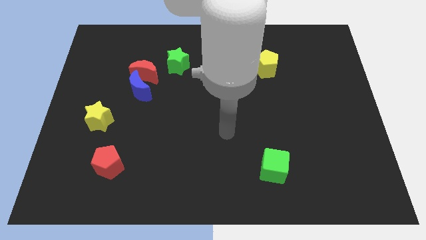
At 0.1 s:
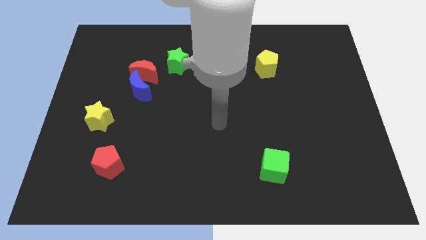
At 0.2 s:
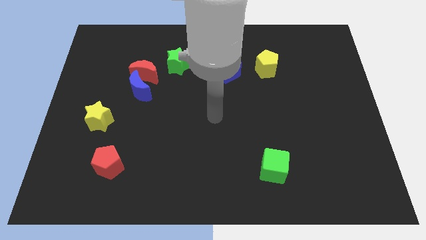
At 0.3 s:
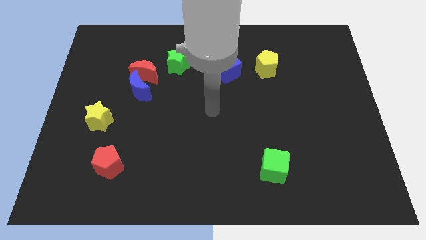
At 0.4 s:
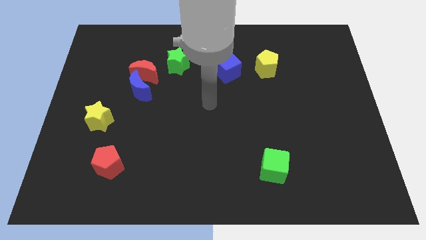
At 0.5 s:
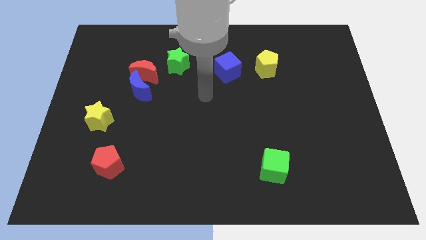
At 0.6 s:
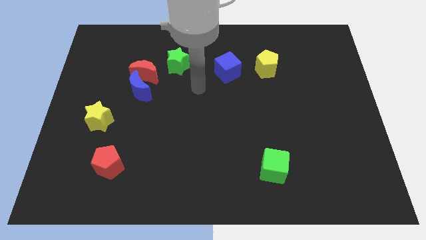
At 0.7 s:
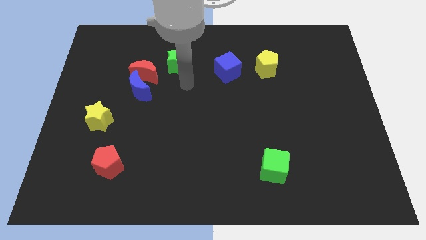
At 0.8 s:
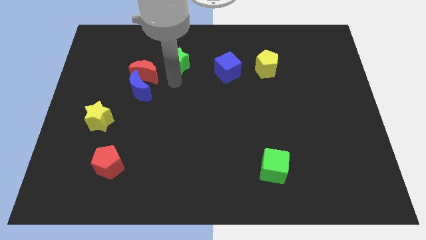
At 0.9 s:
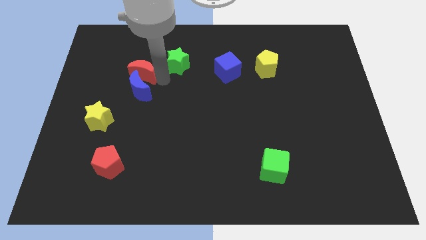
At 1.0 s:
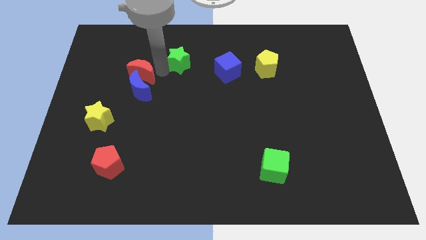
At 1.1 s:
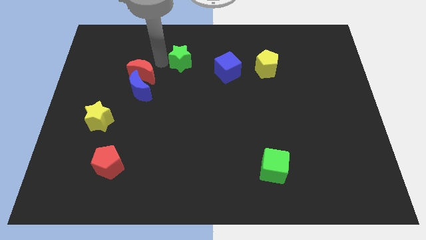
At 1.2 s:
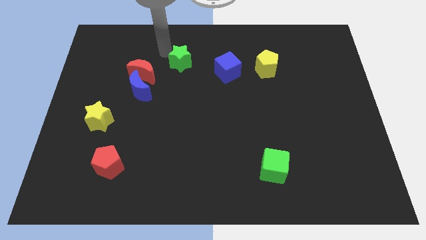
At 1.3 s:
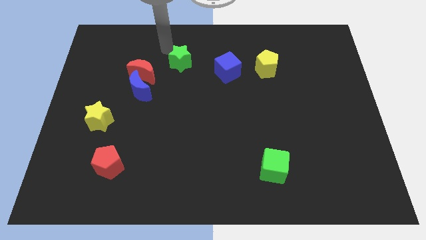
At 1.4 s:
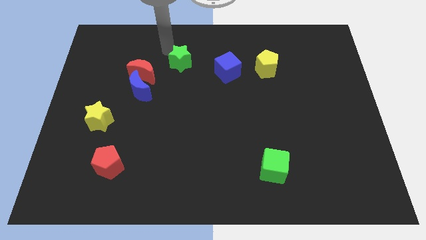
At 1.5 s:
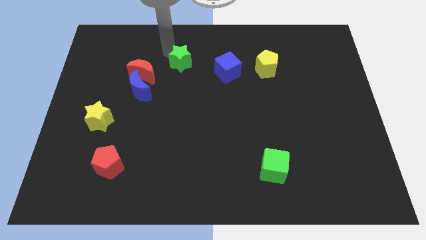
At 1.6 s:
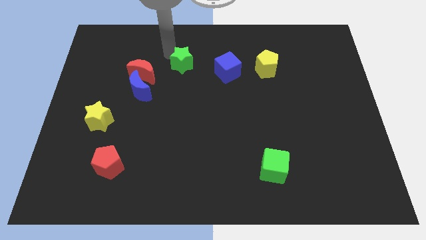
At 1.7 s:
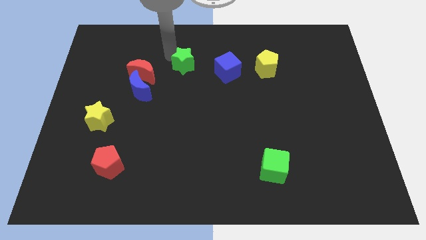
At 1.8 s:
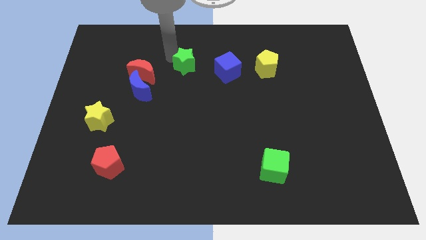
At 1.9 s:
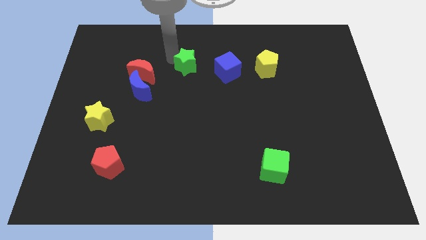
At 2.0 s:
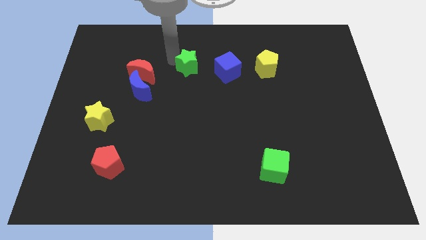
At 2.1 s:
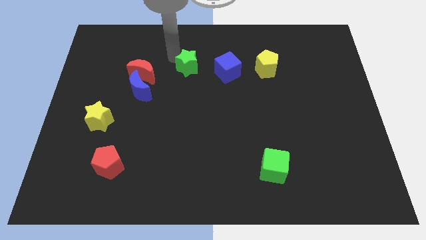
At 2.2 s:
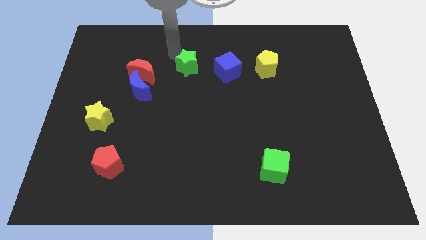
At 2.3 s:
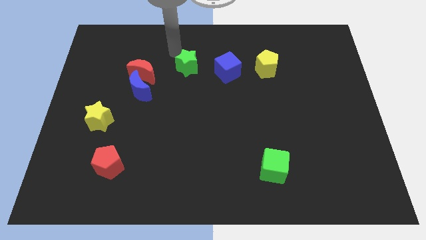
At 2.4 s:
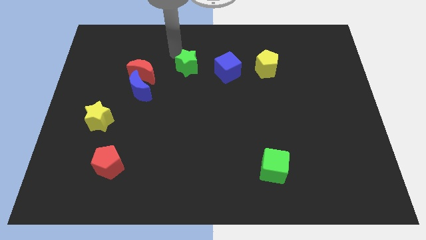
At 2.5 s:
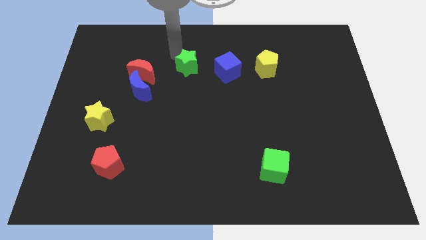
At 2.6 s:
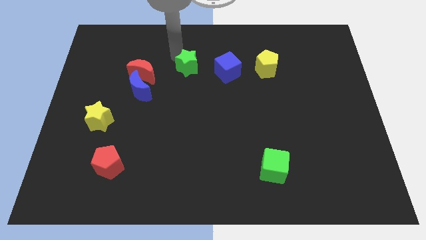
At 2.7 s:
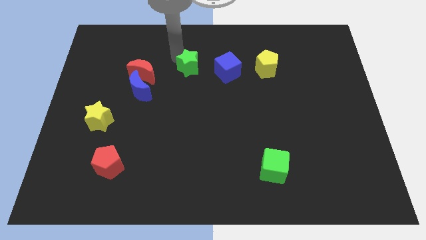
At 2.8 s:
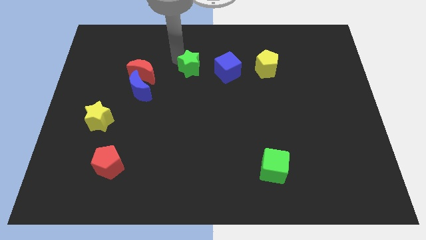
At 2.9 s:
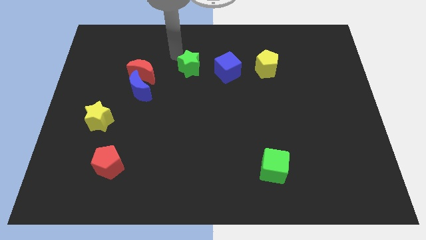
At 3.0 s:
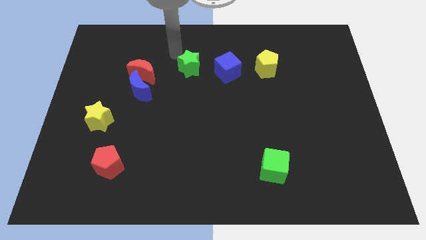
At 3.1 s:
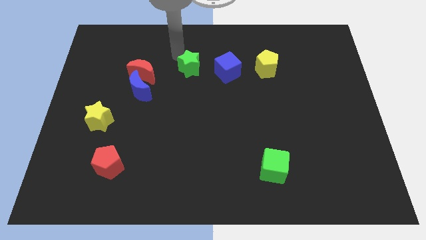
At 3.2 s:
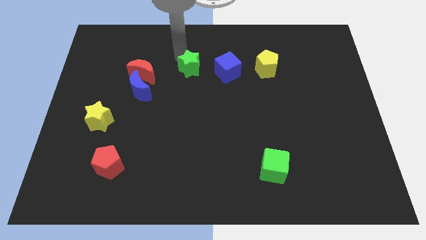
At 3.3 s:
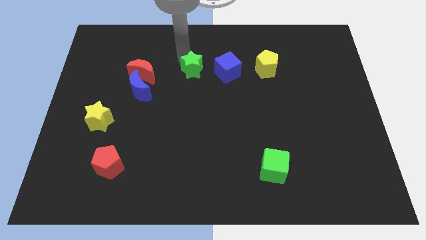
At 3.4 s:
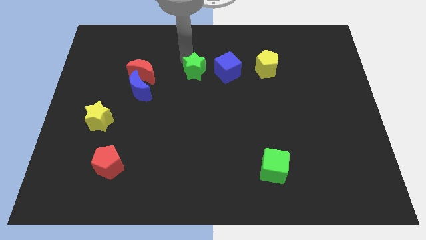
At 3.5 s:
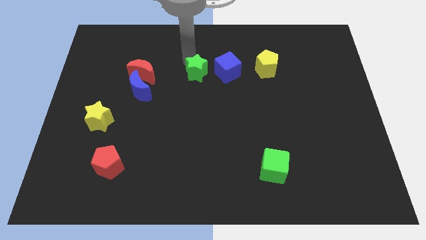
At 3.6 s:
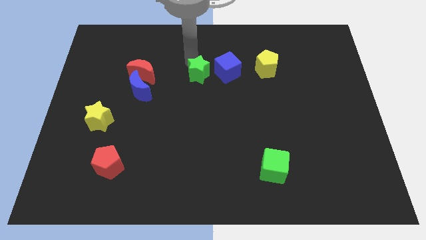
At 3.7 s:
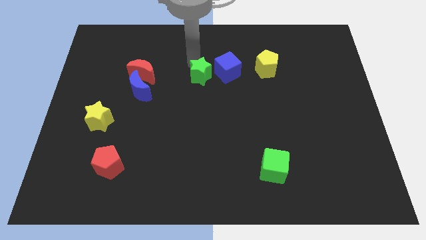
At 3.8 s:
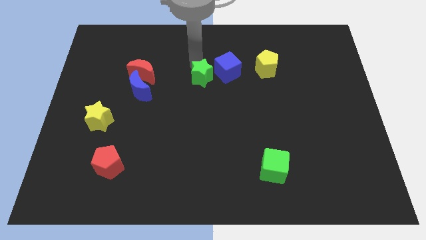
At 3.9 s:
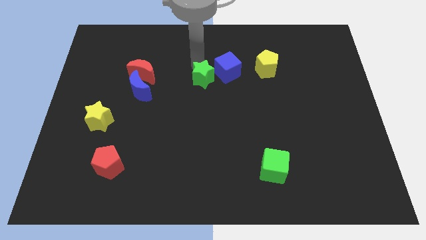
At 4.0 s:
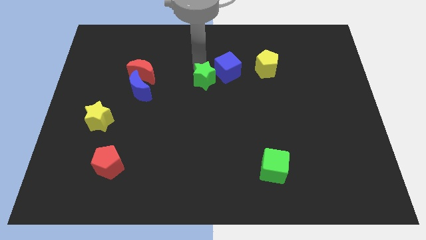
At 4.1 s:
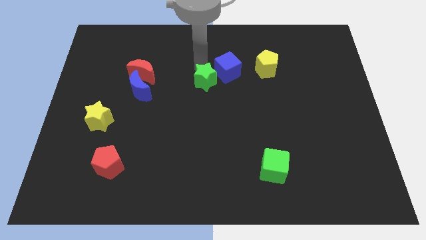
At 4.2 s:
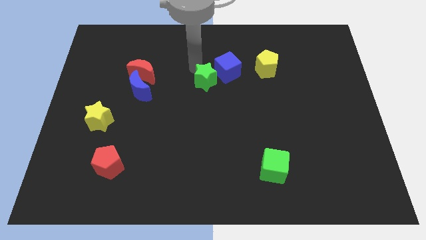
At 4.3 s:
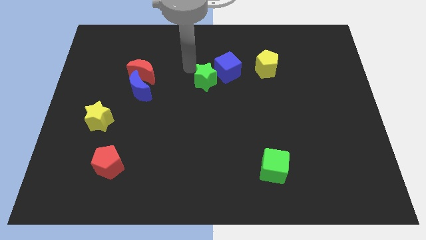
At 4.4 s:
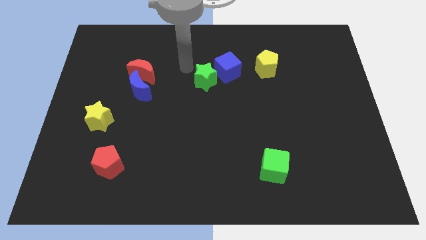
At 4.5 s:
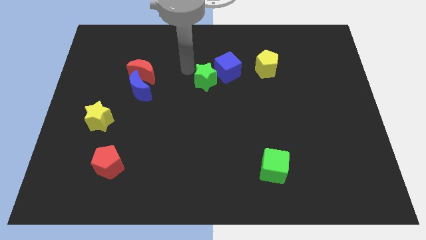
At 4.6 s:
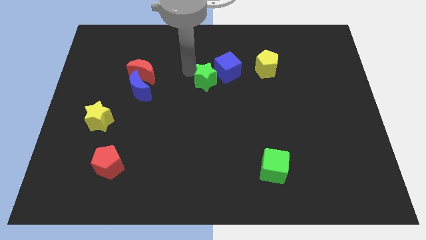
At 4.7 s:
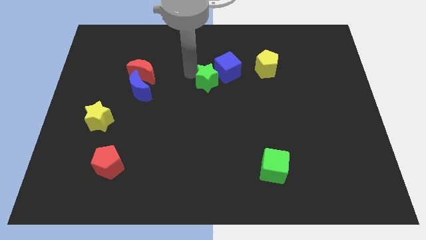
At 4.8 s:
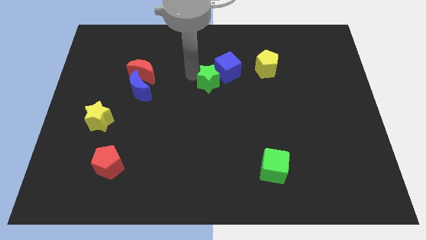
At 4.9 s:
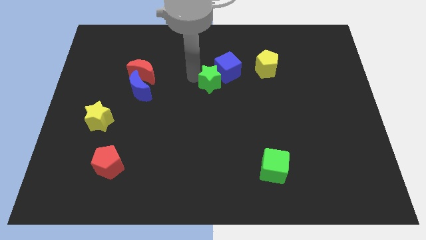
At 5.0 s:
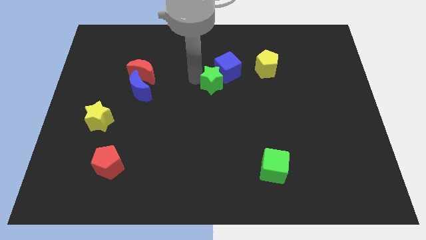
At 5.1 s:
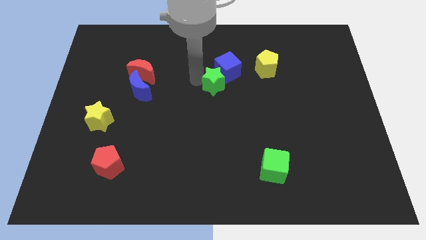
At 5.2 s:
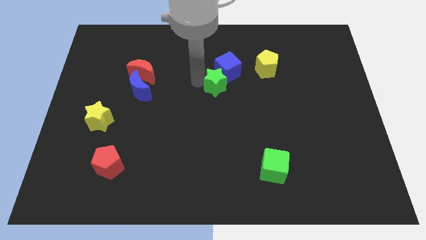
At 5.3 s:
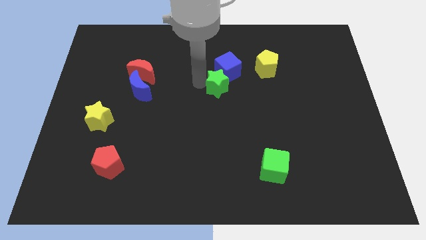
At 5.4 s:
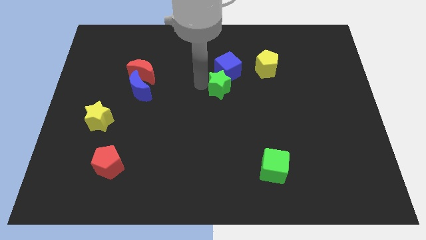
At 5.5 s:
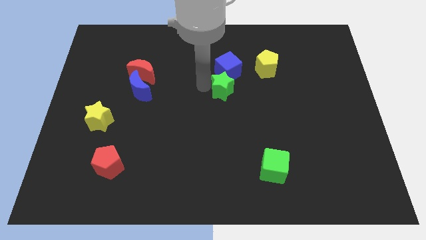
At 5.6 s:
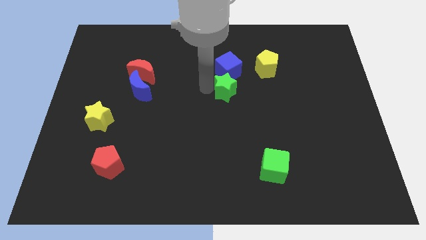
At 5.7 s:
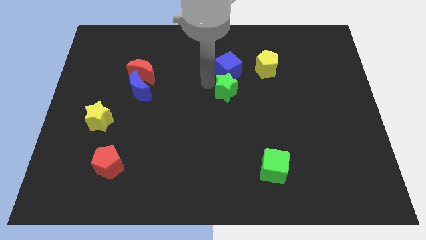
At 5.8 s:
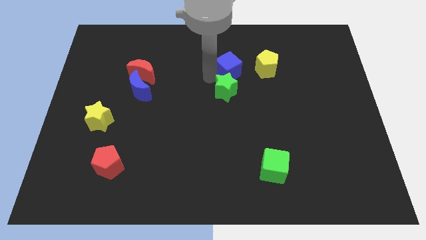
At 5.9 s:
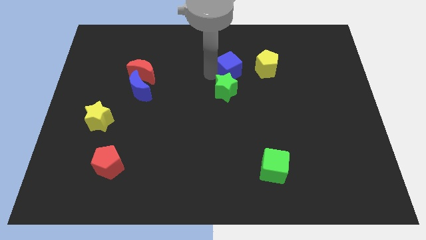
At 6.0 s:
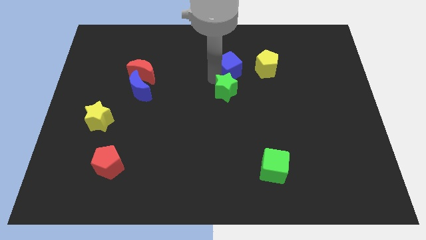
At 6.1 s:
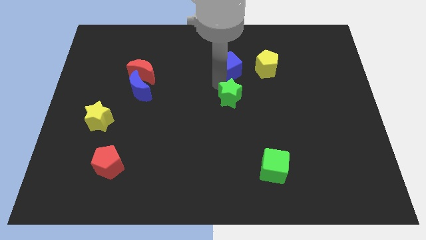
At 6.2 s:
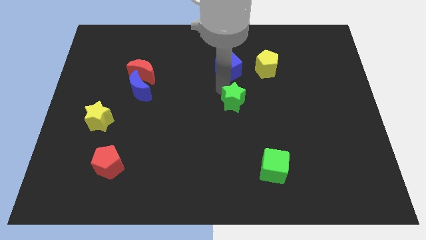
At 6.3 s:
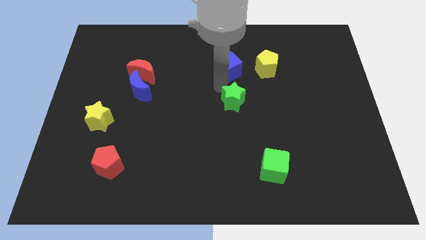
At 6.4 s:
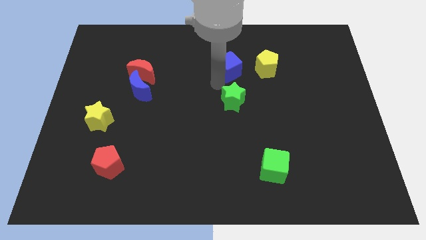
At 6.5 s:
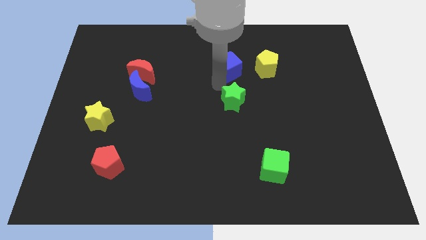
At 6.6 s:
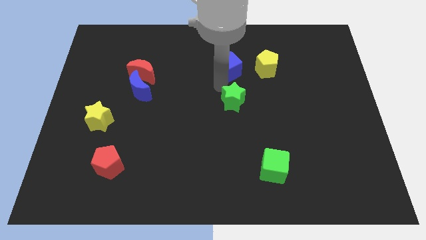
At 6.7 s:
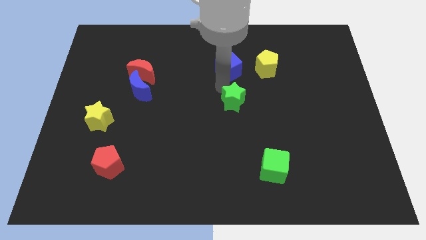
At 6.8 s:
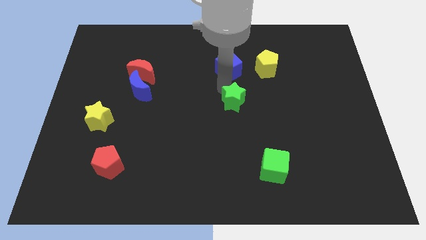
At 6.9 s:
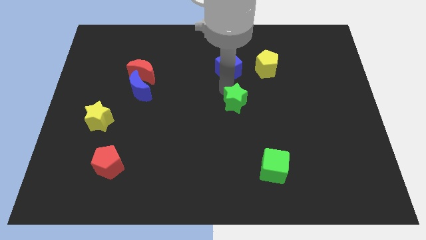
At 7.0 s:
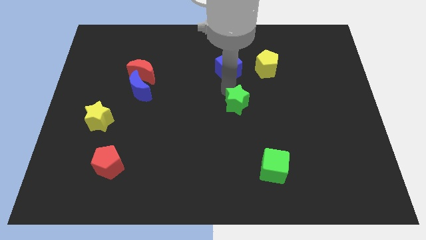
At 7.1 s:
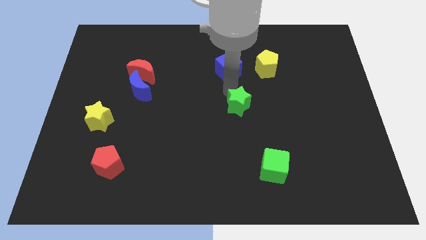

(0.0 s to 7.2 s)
push the green star down and then to the right

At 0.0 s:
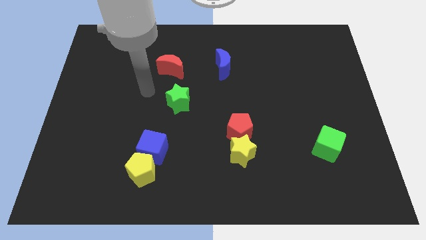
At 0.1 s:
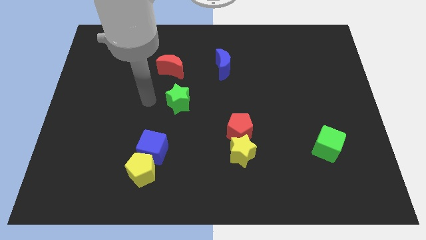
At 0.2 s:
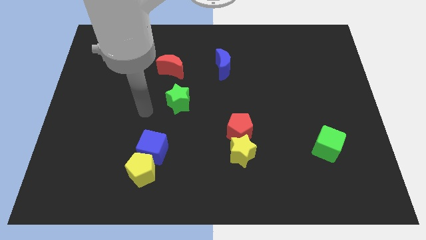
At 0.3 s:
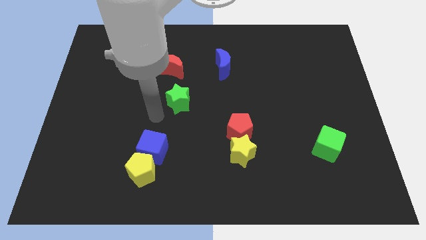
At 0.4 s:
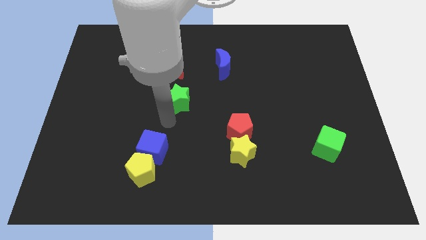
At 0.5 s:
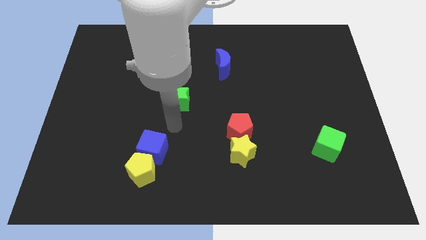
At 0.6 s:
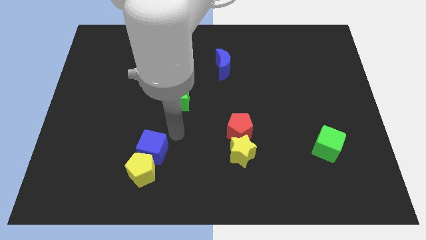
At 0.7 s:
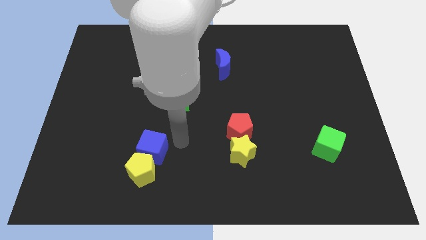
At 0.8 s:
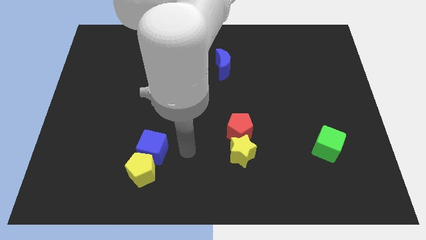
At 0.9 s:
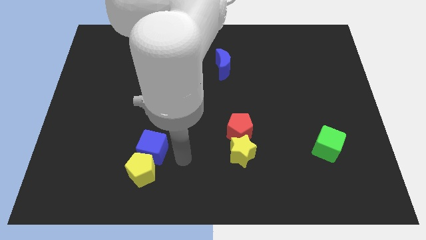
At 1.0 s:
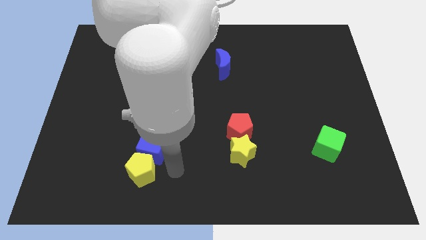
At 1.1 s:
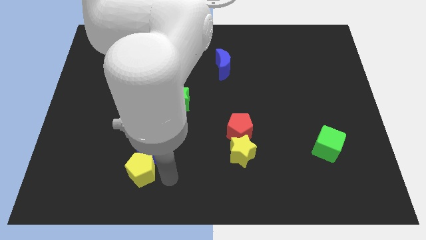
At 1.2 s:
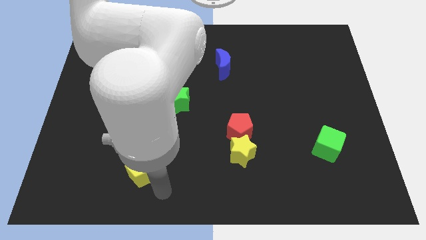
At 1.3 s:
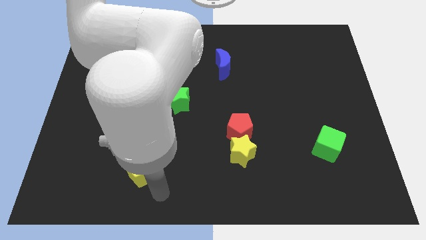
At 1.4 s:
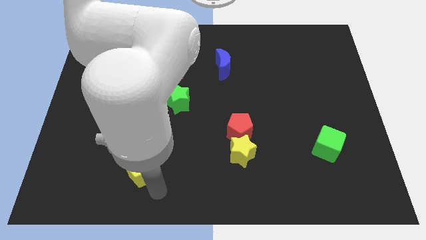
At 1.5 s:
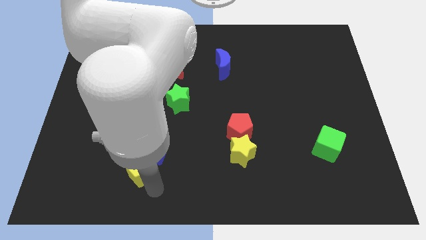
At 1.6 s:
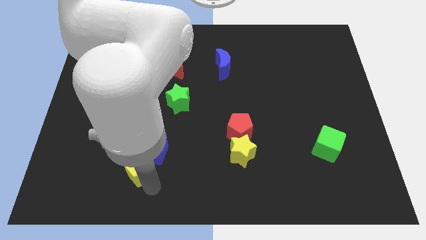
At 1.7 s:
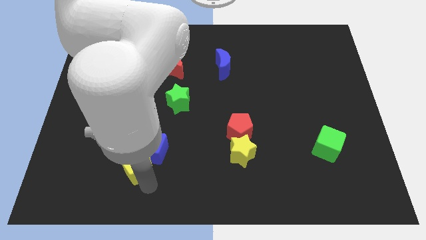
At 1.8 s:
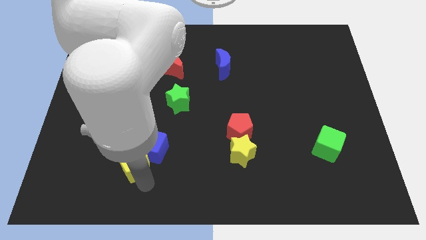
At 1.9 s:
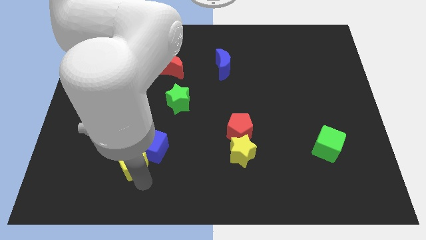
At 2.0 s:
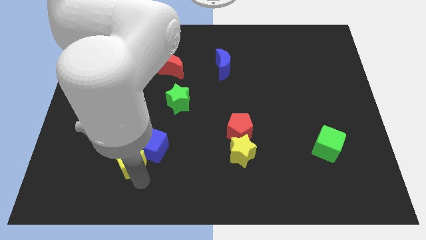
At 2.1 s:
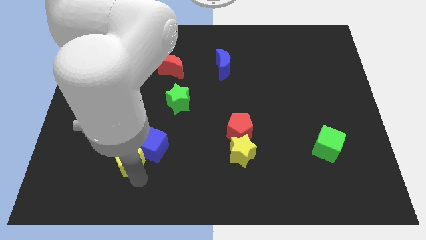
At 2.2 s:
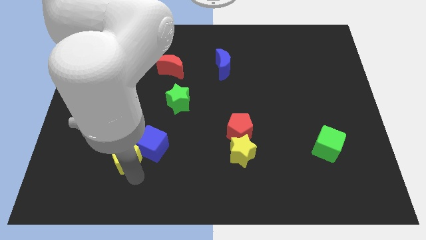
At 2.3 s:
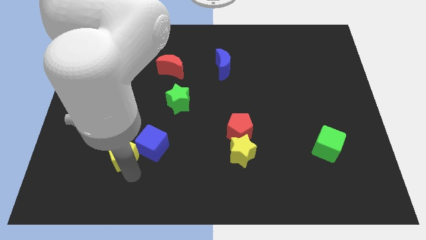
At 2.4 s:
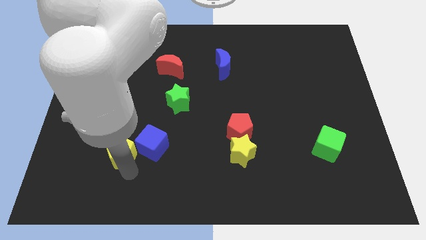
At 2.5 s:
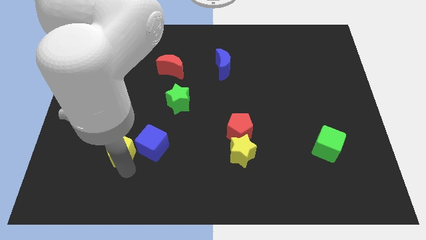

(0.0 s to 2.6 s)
push the yellow pentagon up and then left a little
